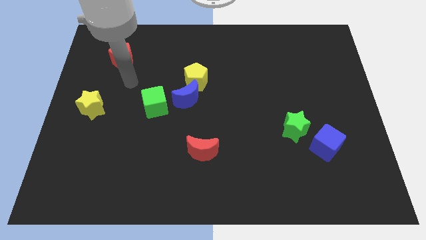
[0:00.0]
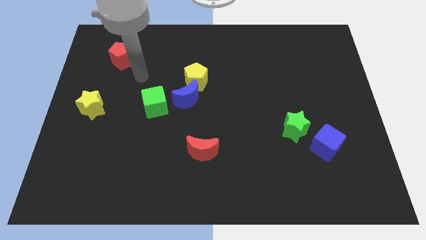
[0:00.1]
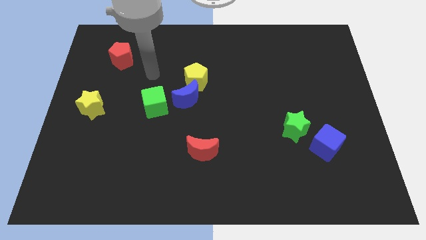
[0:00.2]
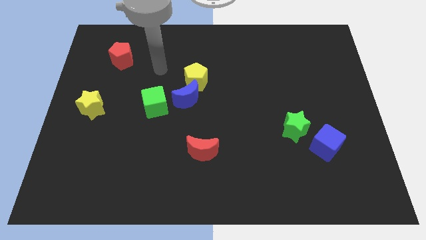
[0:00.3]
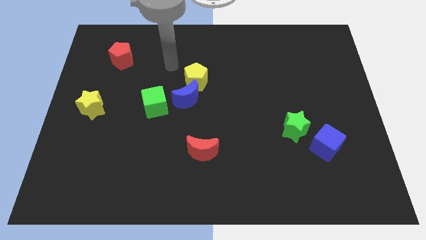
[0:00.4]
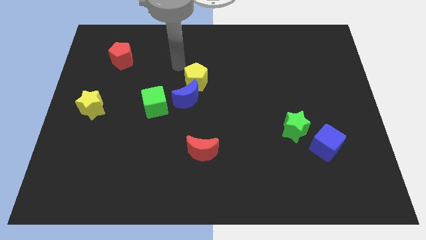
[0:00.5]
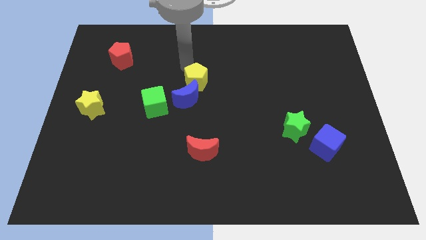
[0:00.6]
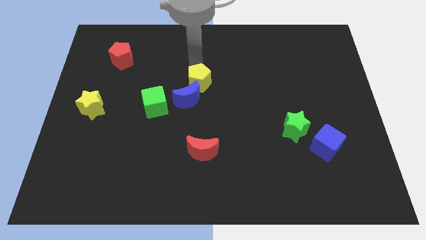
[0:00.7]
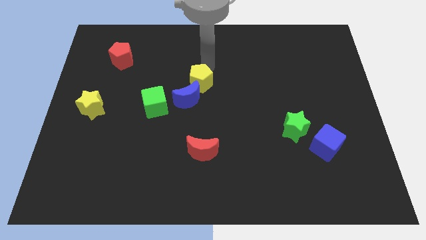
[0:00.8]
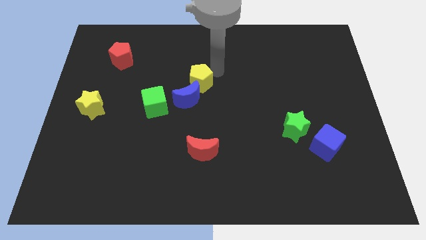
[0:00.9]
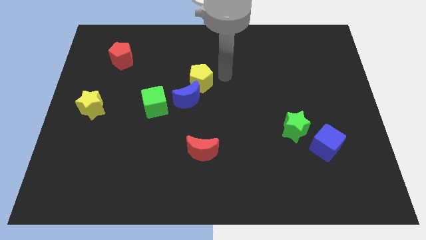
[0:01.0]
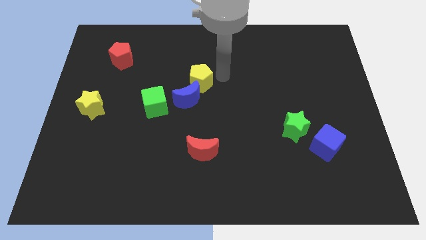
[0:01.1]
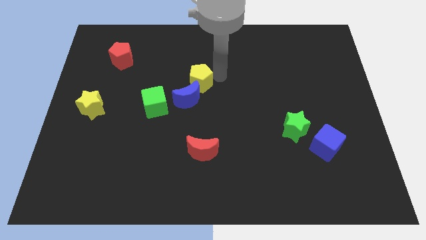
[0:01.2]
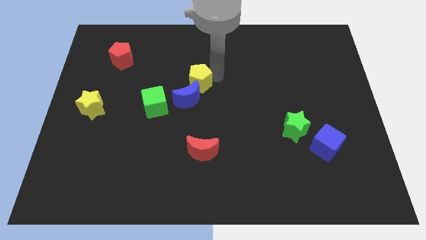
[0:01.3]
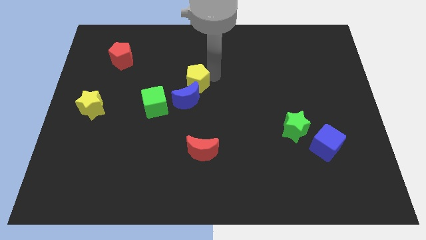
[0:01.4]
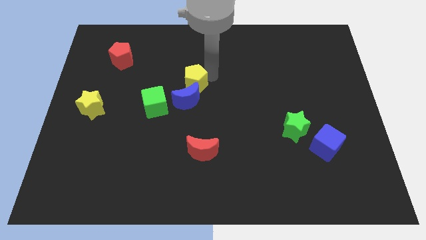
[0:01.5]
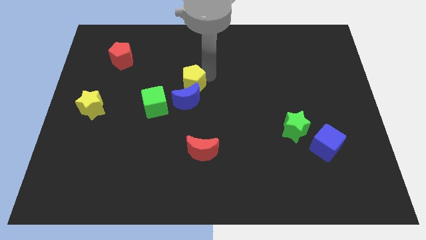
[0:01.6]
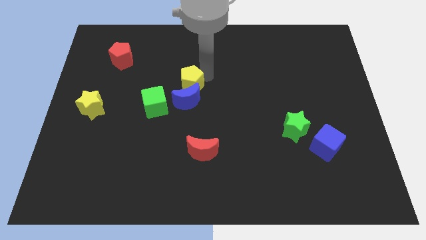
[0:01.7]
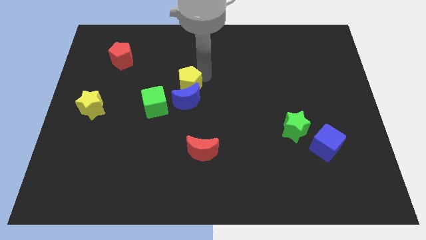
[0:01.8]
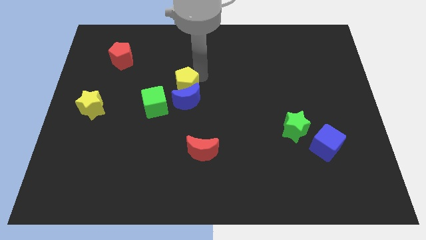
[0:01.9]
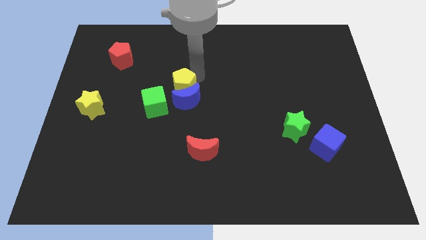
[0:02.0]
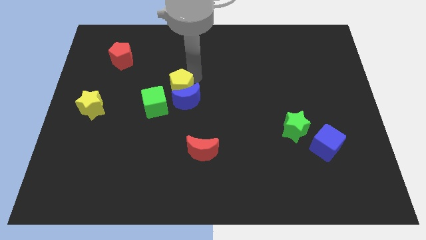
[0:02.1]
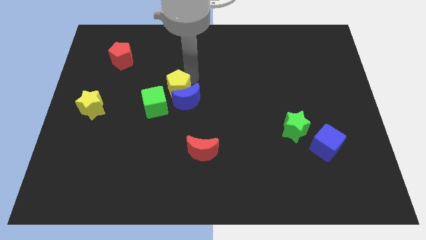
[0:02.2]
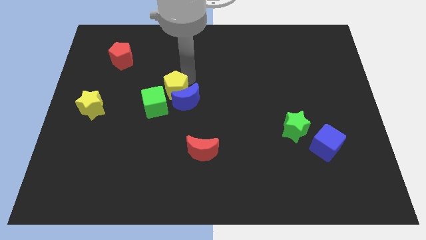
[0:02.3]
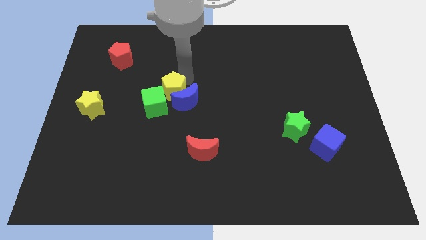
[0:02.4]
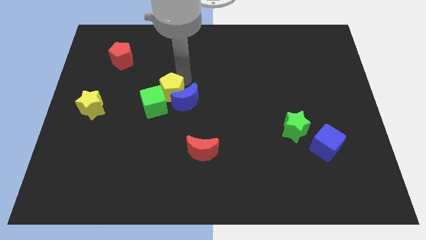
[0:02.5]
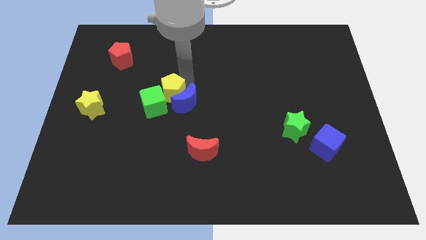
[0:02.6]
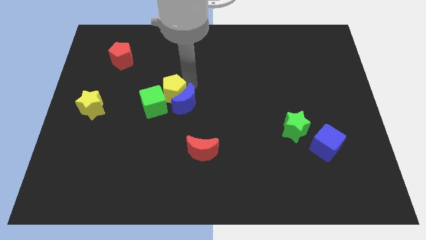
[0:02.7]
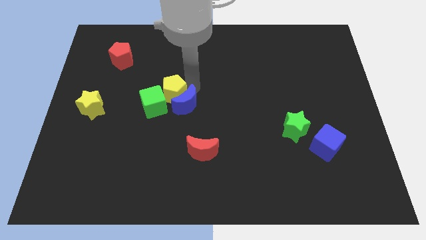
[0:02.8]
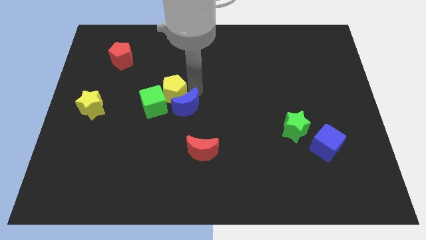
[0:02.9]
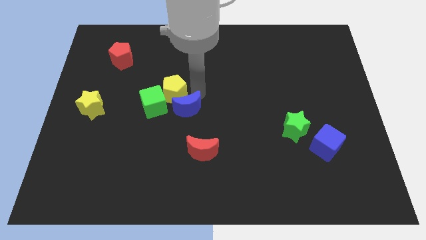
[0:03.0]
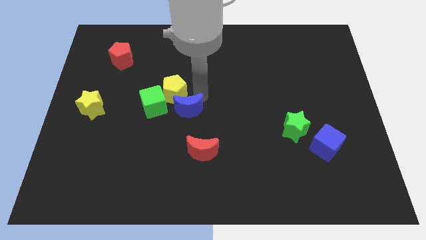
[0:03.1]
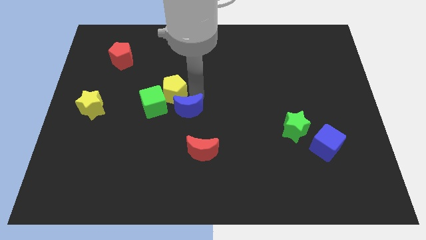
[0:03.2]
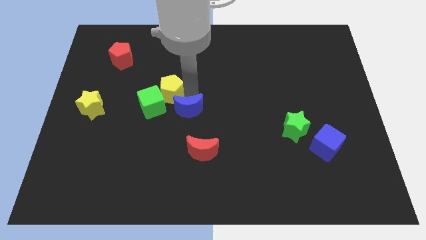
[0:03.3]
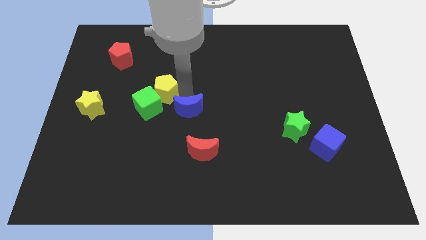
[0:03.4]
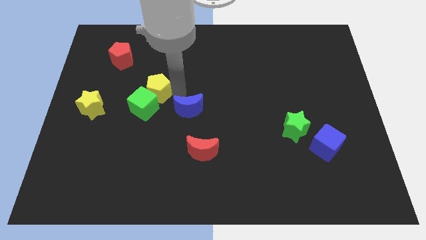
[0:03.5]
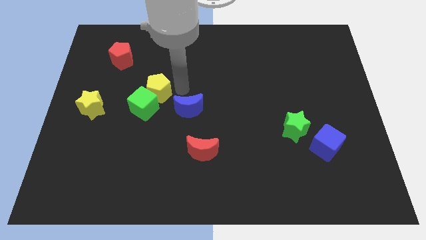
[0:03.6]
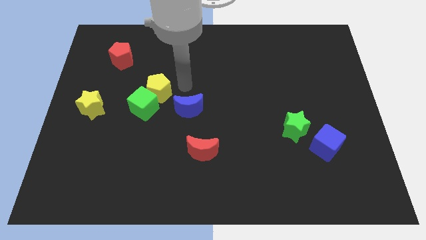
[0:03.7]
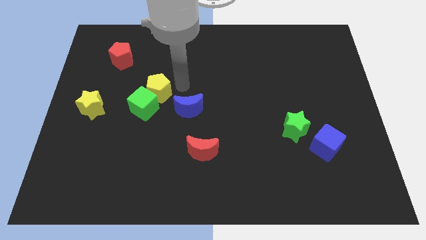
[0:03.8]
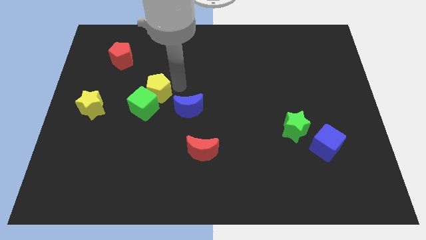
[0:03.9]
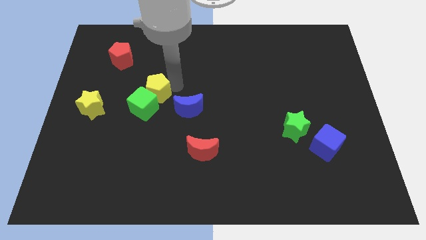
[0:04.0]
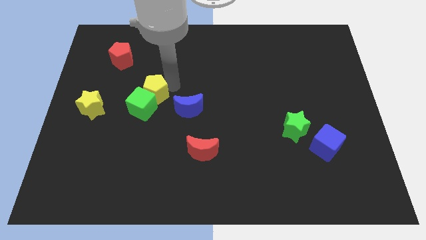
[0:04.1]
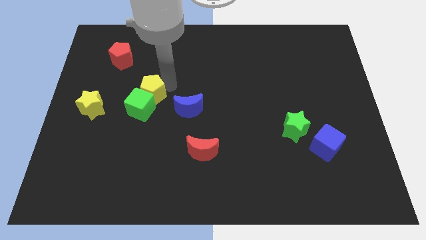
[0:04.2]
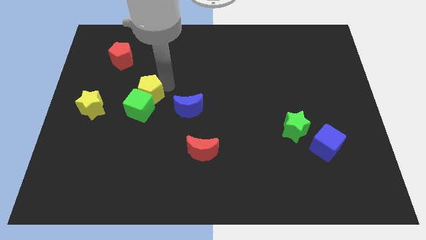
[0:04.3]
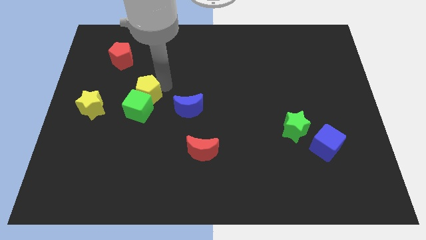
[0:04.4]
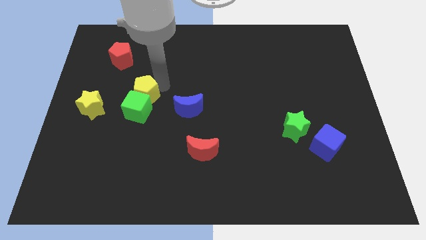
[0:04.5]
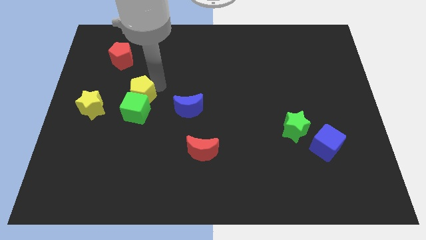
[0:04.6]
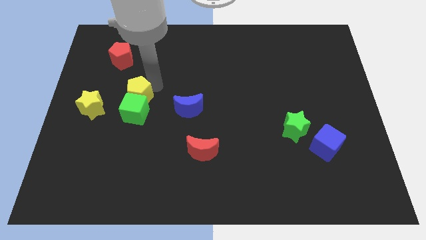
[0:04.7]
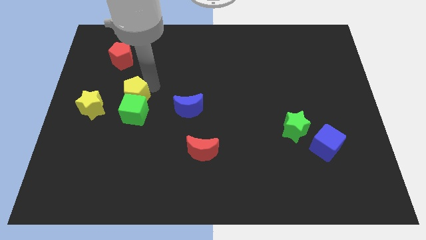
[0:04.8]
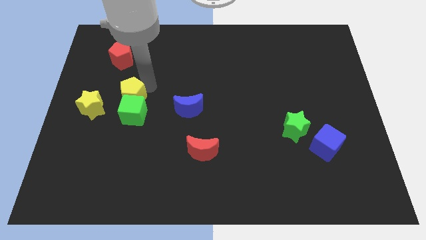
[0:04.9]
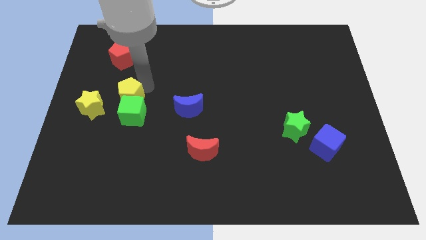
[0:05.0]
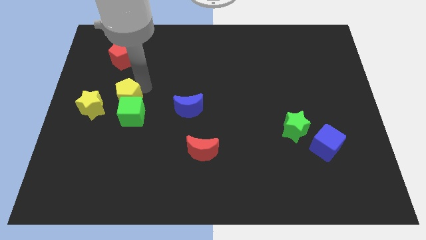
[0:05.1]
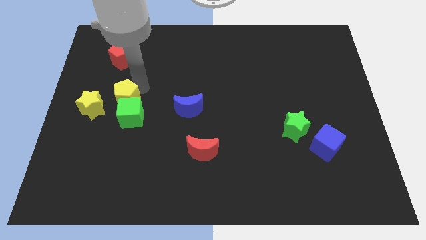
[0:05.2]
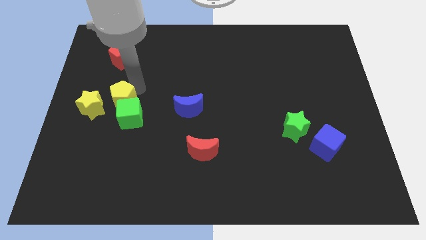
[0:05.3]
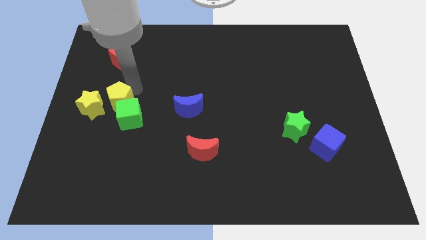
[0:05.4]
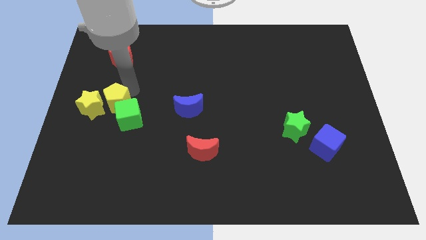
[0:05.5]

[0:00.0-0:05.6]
slide the yellow pentagon close to the yellow star

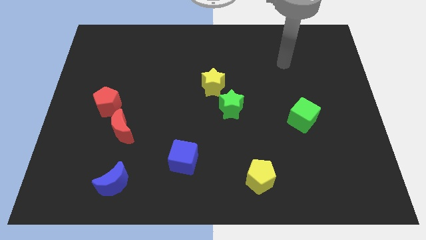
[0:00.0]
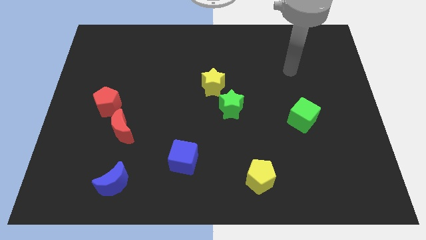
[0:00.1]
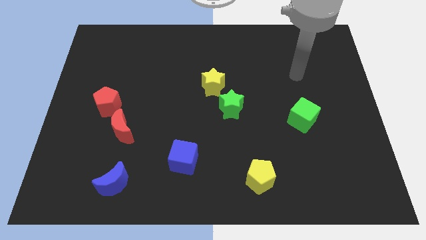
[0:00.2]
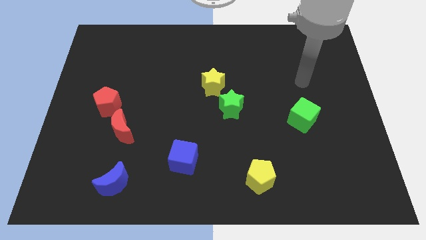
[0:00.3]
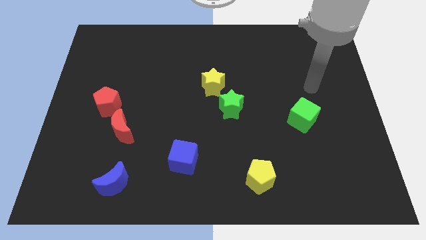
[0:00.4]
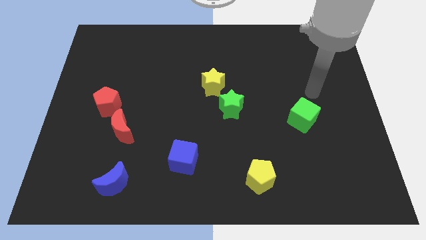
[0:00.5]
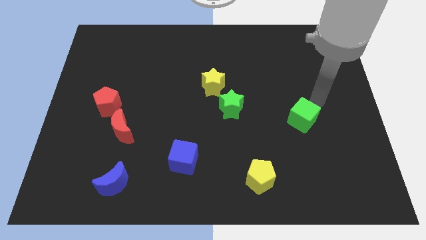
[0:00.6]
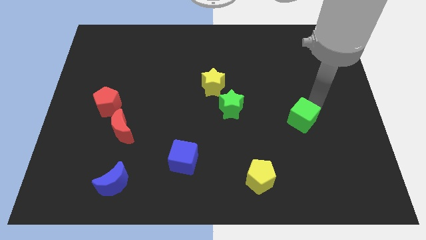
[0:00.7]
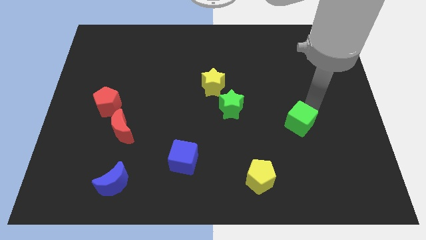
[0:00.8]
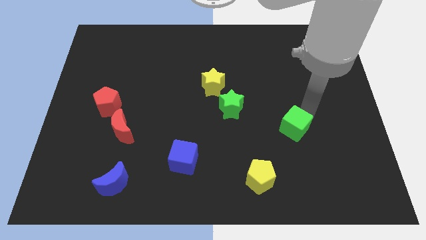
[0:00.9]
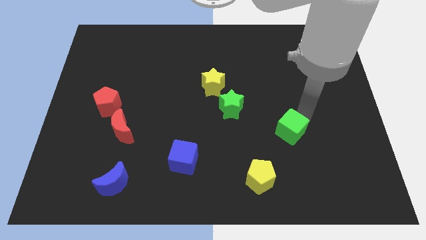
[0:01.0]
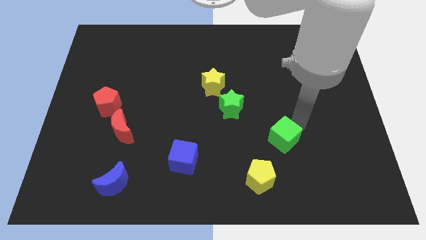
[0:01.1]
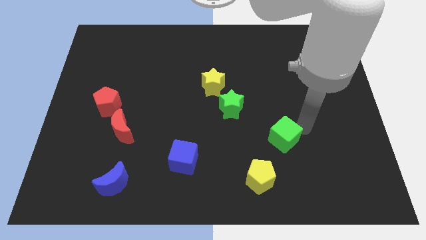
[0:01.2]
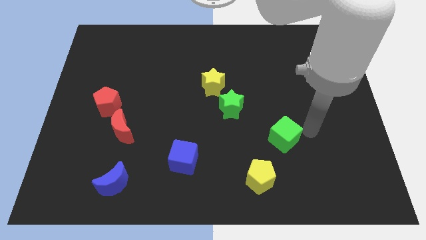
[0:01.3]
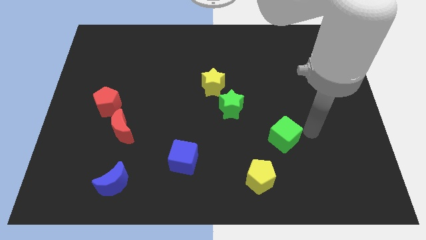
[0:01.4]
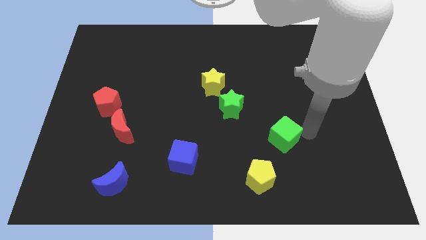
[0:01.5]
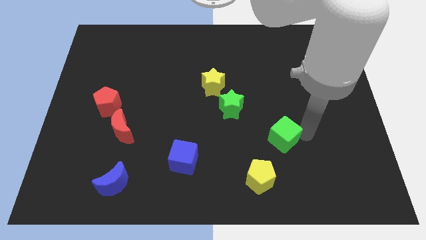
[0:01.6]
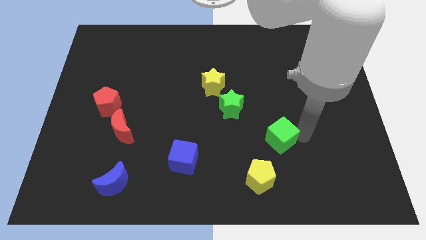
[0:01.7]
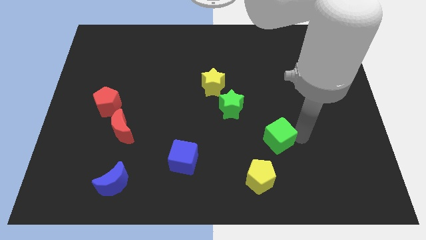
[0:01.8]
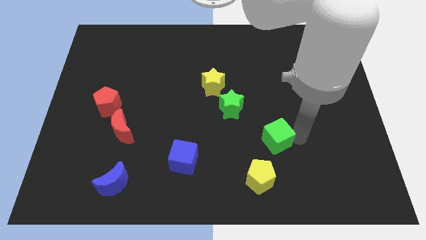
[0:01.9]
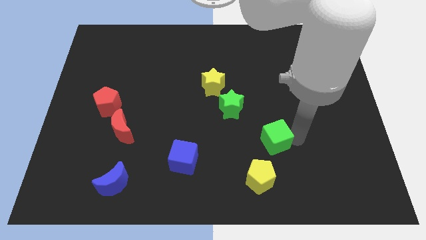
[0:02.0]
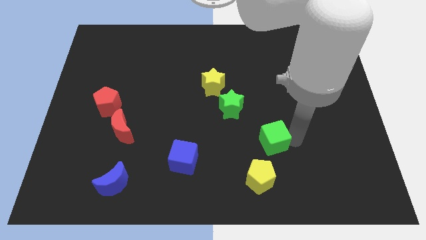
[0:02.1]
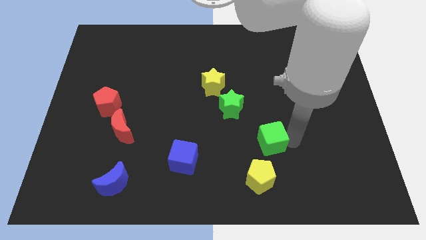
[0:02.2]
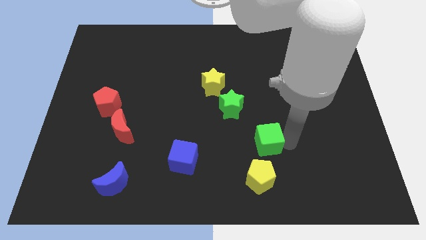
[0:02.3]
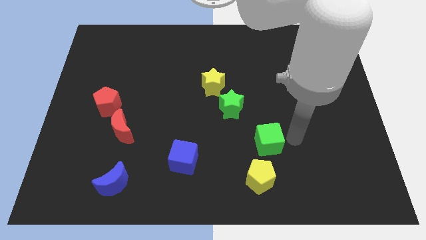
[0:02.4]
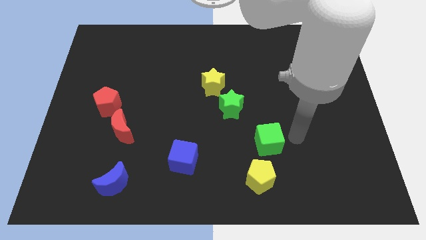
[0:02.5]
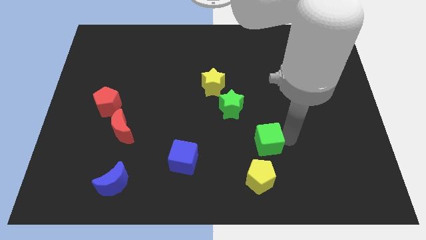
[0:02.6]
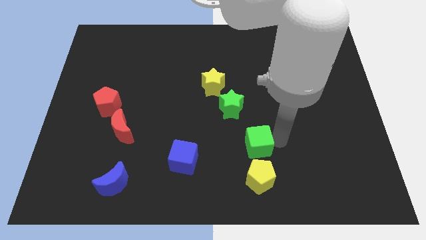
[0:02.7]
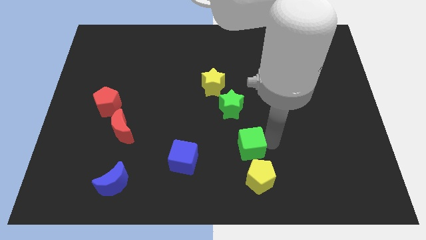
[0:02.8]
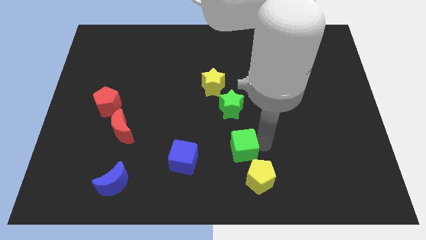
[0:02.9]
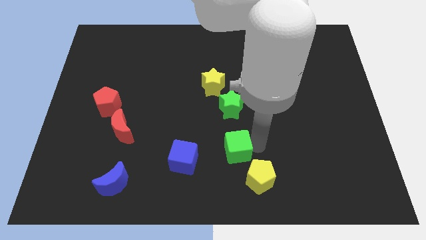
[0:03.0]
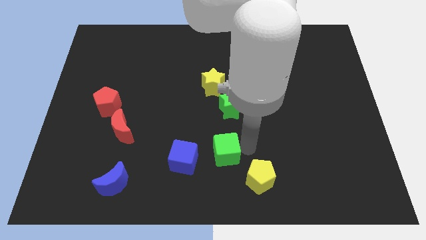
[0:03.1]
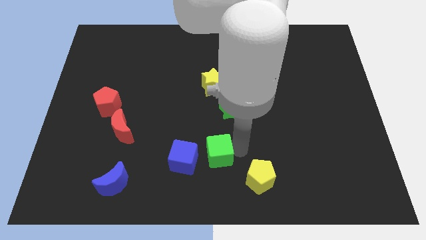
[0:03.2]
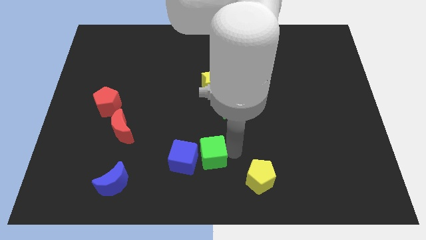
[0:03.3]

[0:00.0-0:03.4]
put the green cube to the blue cube
